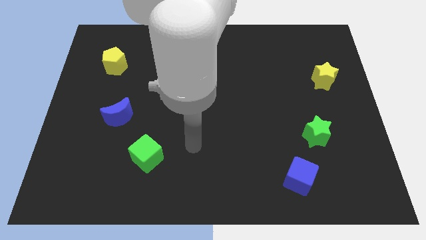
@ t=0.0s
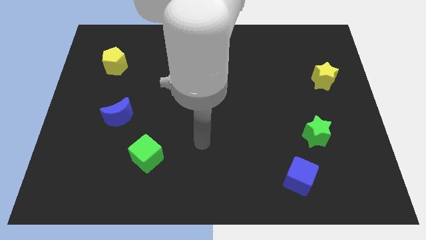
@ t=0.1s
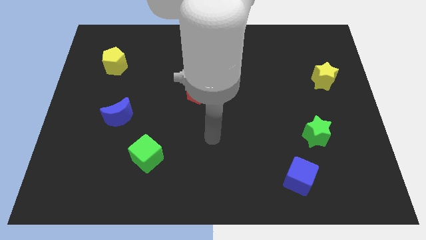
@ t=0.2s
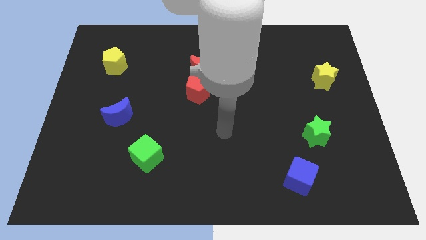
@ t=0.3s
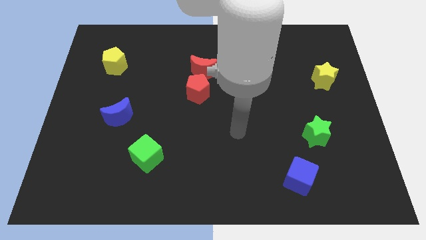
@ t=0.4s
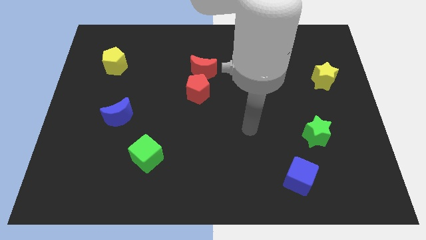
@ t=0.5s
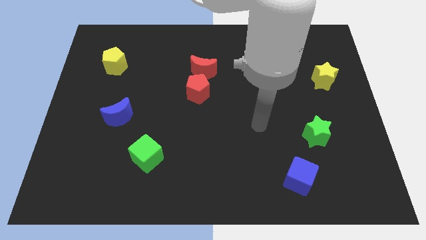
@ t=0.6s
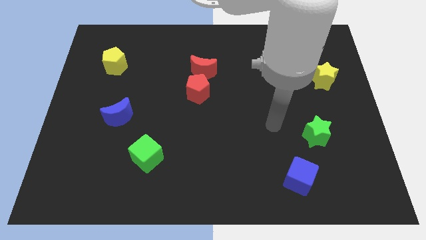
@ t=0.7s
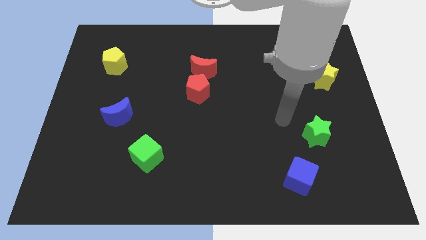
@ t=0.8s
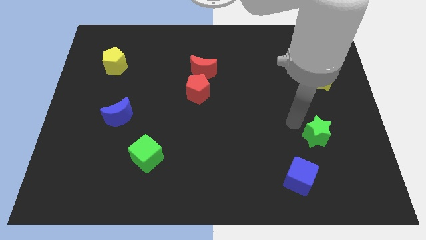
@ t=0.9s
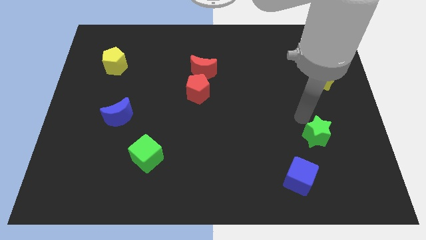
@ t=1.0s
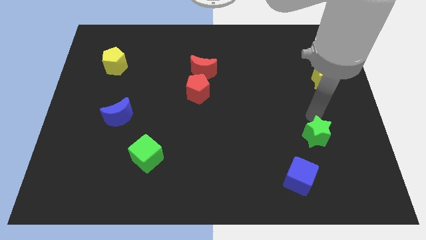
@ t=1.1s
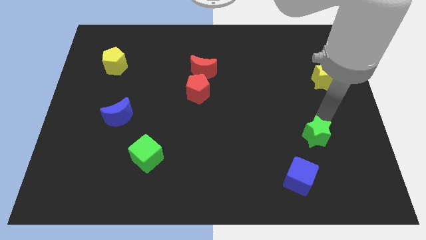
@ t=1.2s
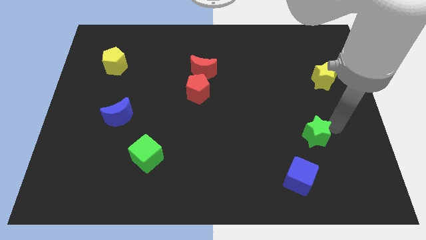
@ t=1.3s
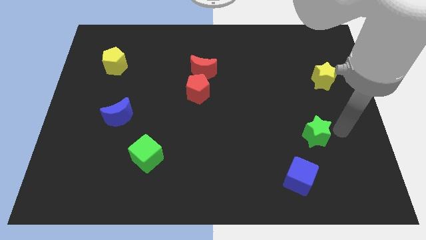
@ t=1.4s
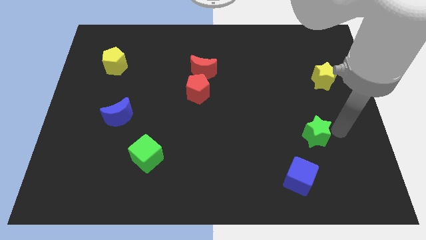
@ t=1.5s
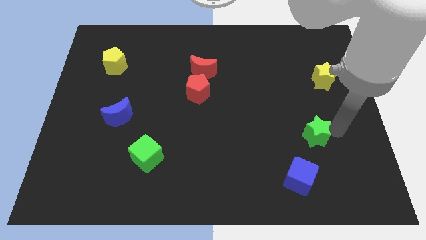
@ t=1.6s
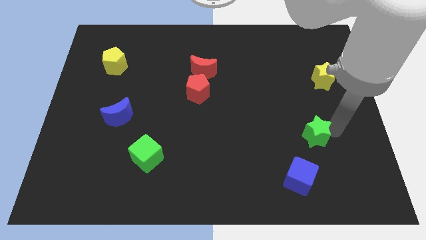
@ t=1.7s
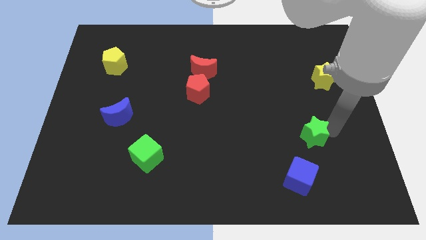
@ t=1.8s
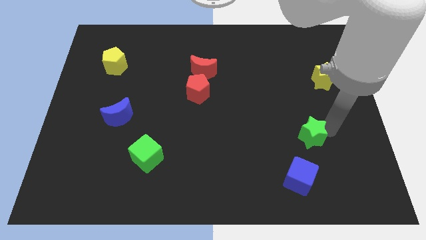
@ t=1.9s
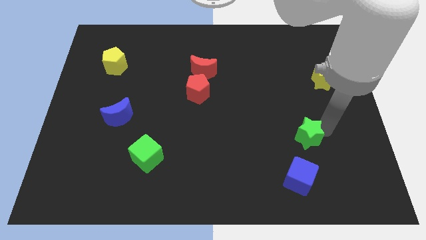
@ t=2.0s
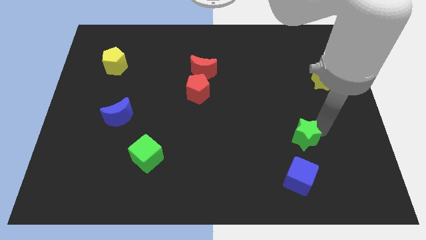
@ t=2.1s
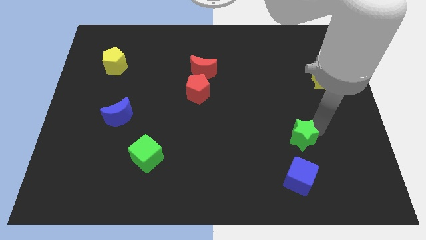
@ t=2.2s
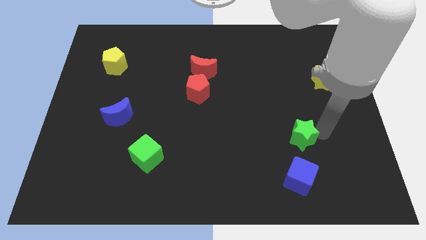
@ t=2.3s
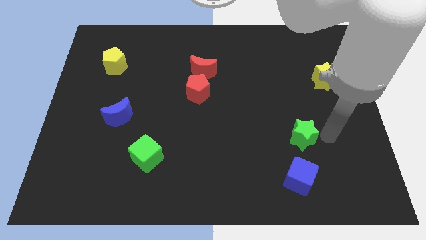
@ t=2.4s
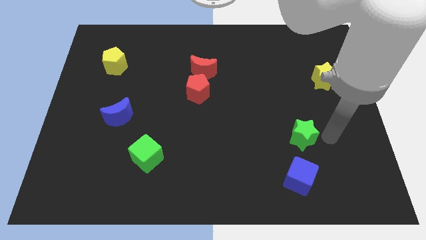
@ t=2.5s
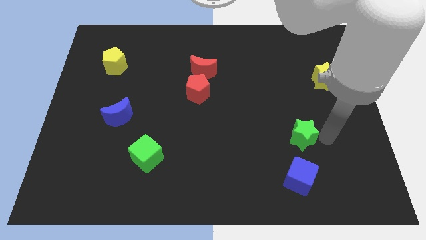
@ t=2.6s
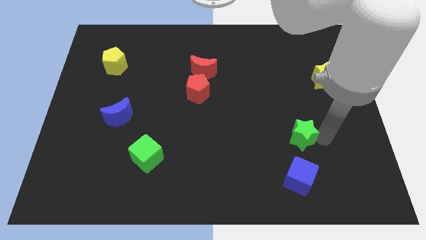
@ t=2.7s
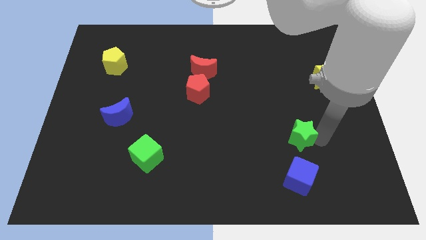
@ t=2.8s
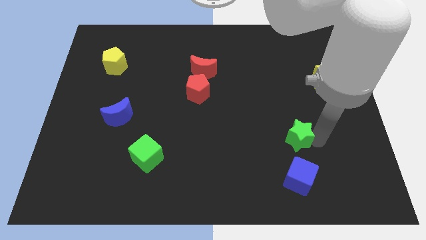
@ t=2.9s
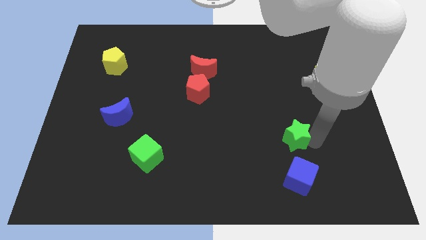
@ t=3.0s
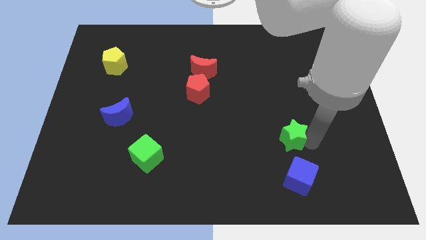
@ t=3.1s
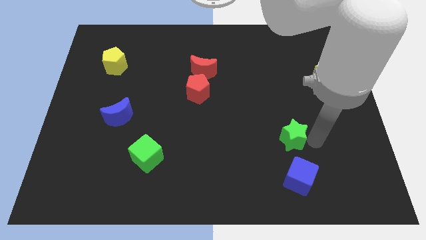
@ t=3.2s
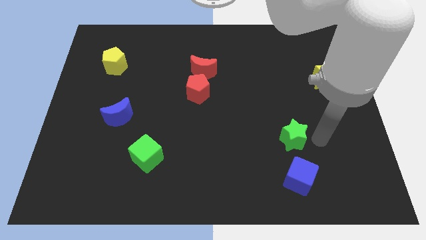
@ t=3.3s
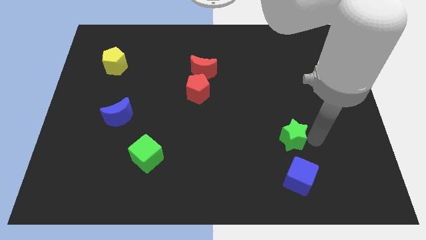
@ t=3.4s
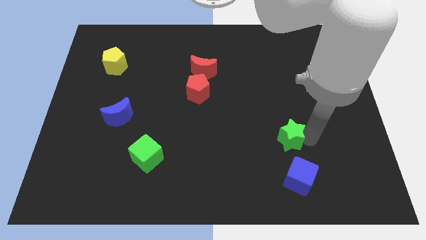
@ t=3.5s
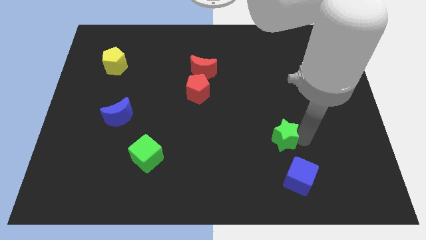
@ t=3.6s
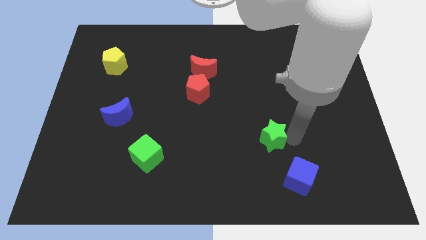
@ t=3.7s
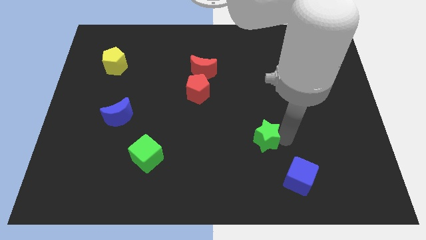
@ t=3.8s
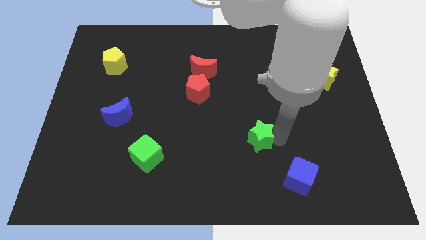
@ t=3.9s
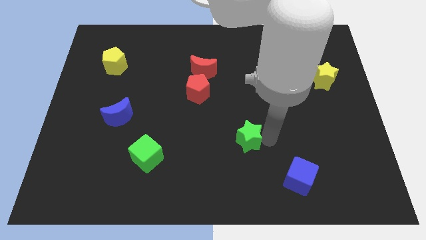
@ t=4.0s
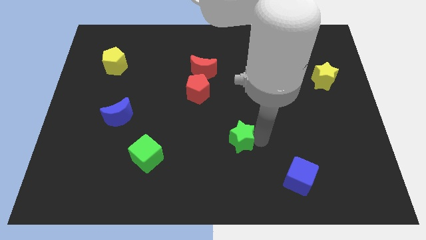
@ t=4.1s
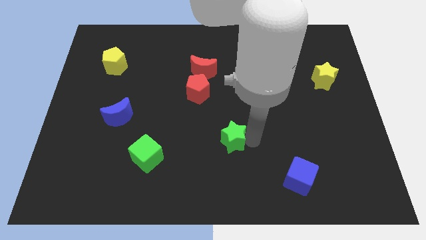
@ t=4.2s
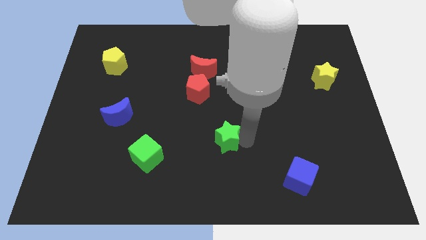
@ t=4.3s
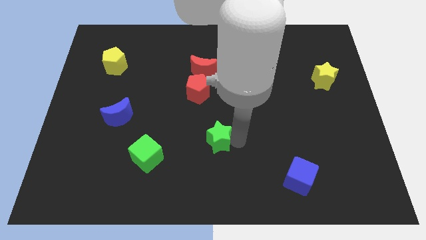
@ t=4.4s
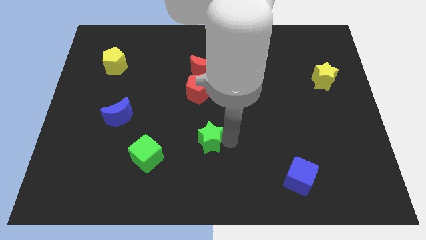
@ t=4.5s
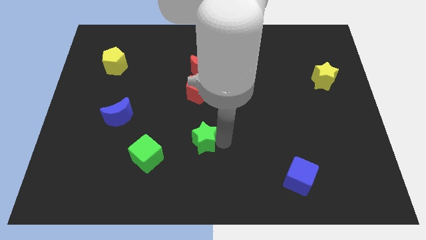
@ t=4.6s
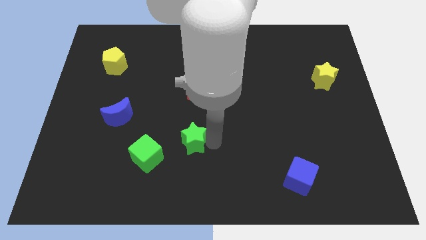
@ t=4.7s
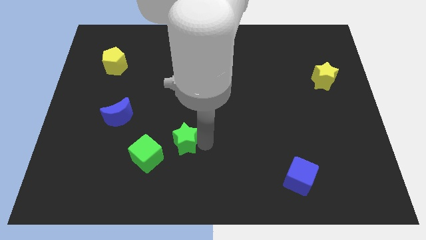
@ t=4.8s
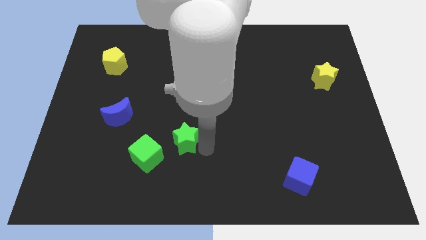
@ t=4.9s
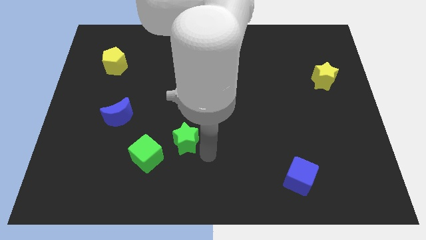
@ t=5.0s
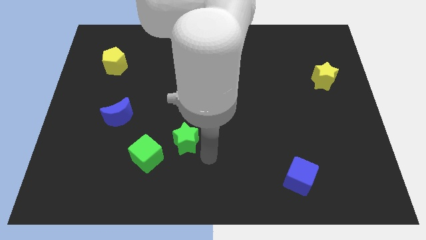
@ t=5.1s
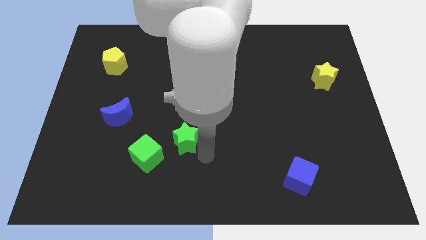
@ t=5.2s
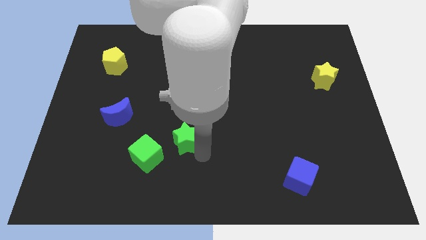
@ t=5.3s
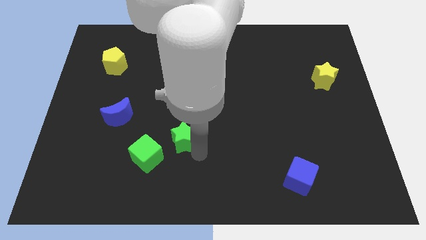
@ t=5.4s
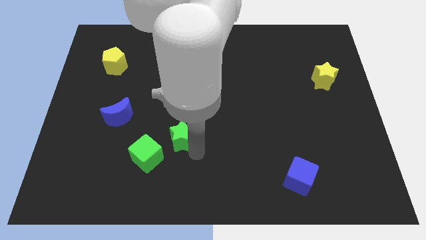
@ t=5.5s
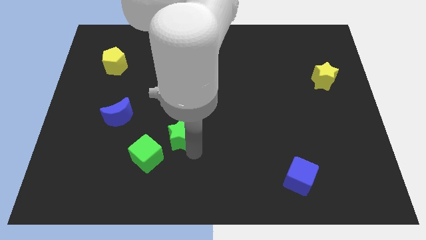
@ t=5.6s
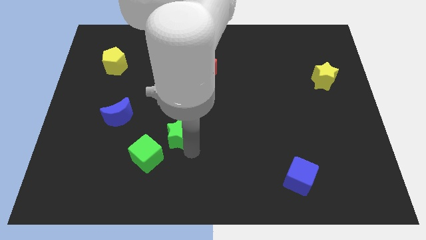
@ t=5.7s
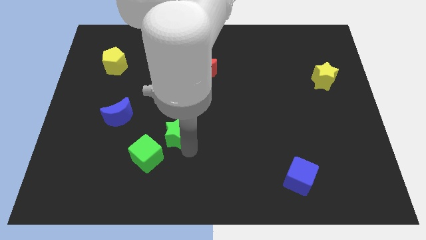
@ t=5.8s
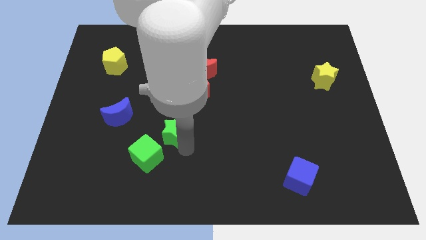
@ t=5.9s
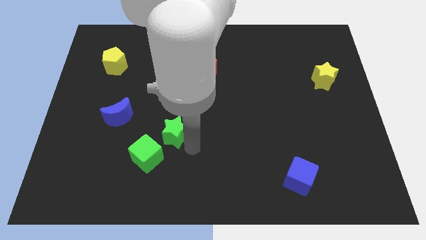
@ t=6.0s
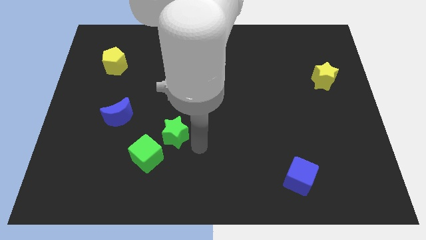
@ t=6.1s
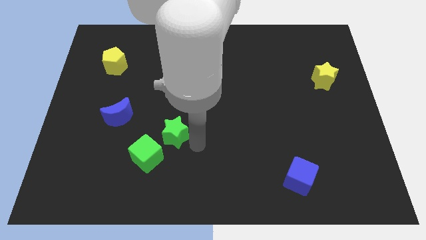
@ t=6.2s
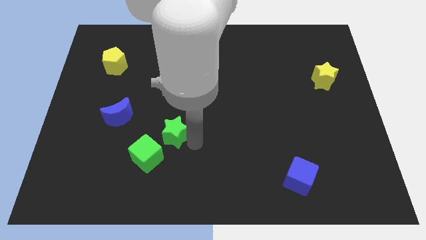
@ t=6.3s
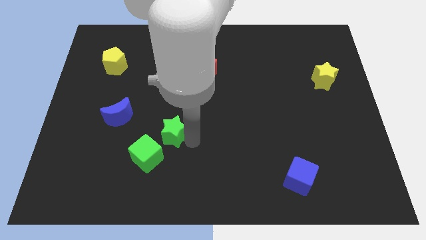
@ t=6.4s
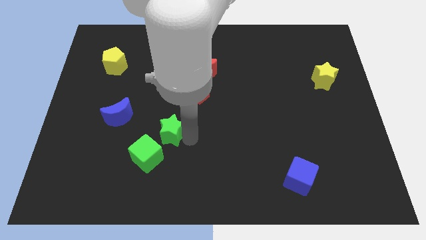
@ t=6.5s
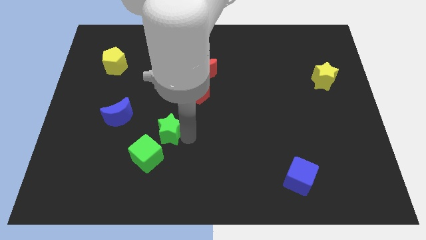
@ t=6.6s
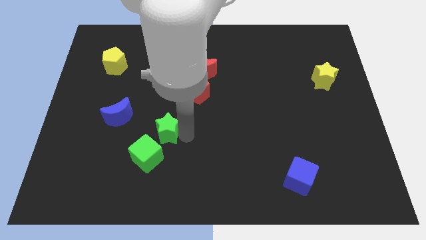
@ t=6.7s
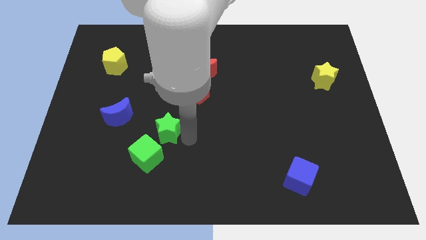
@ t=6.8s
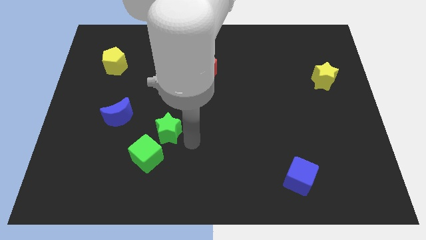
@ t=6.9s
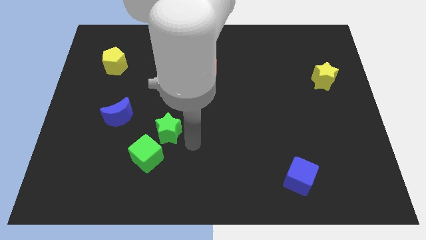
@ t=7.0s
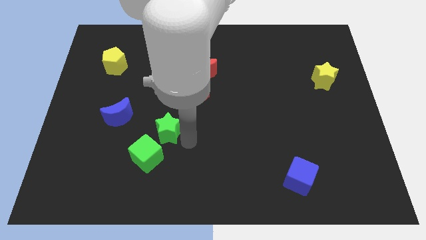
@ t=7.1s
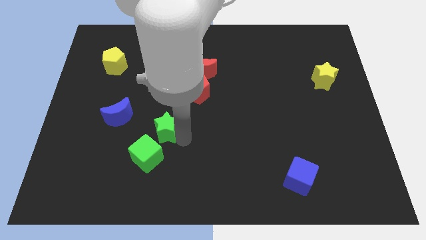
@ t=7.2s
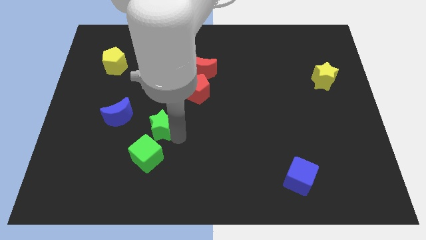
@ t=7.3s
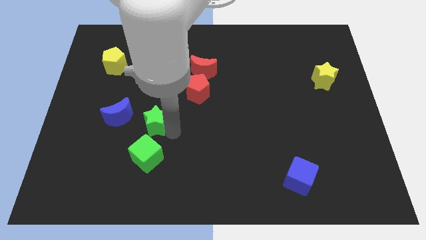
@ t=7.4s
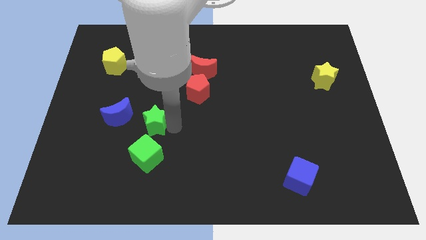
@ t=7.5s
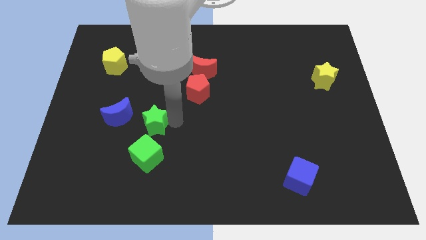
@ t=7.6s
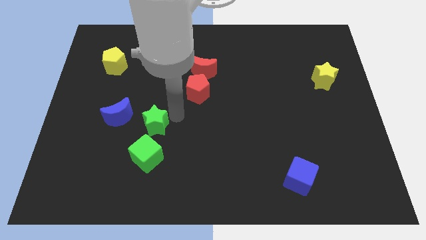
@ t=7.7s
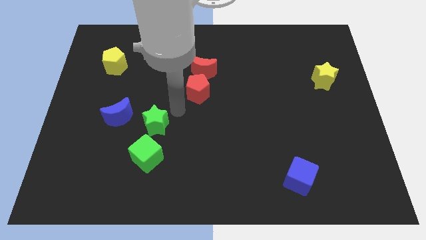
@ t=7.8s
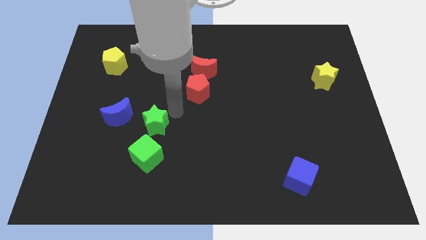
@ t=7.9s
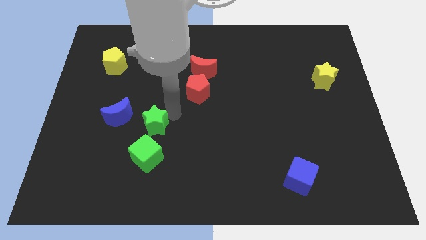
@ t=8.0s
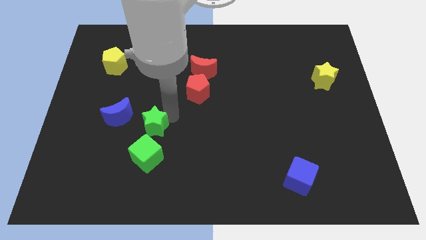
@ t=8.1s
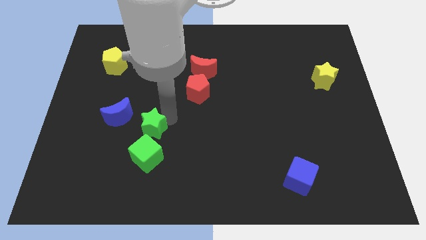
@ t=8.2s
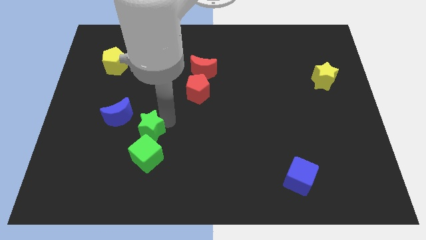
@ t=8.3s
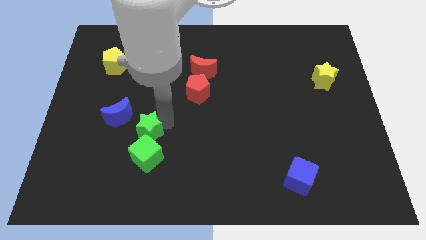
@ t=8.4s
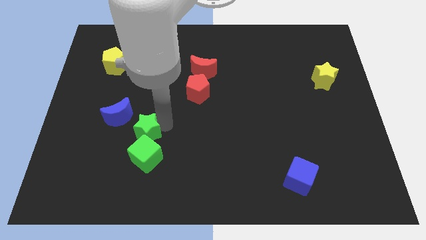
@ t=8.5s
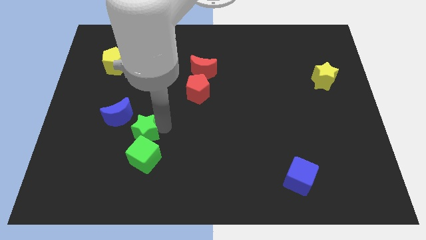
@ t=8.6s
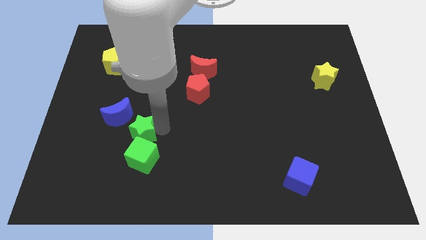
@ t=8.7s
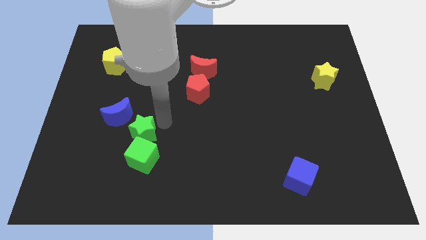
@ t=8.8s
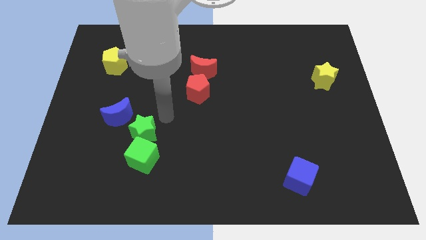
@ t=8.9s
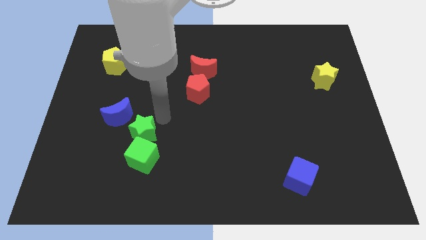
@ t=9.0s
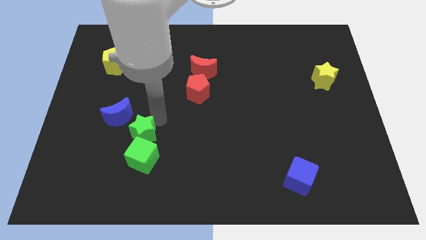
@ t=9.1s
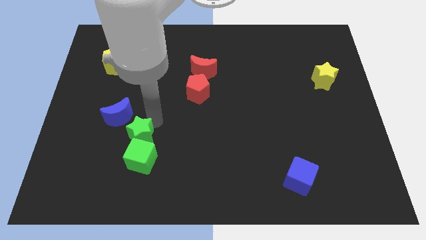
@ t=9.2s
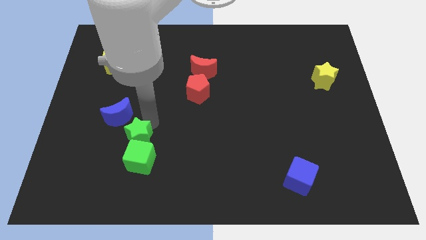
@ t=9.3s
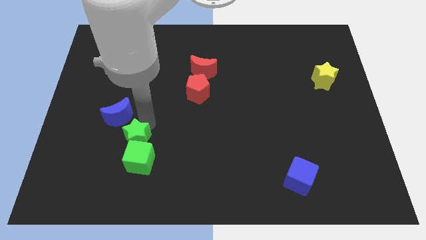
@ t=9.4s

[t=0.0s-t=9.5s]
slide the green star below the blue moon
